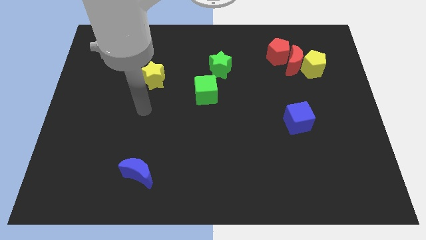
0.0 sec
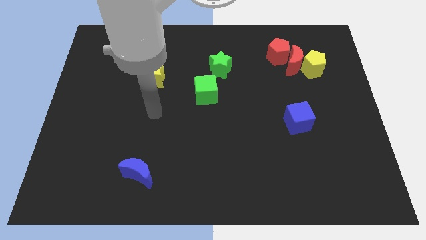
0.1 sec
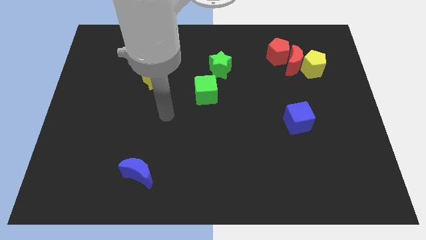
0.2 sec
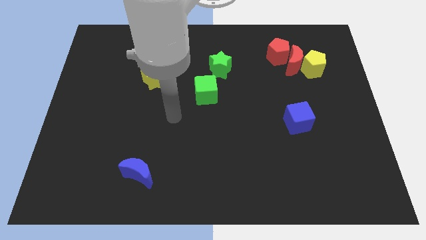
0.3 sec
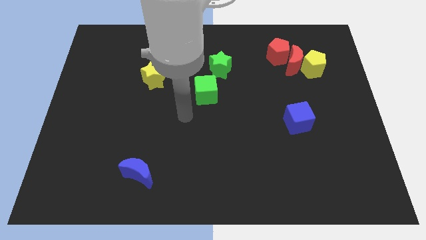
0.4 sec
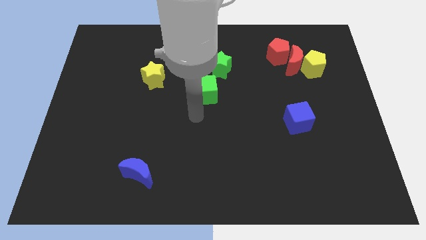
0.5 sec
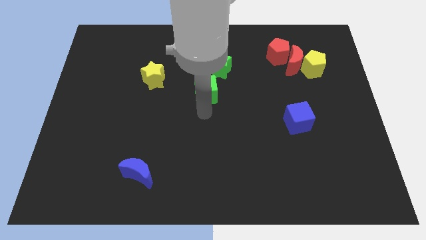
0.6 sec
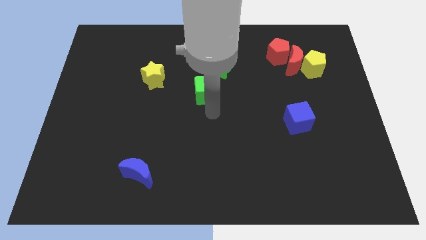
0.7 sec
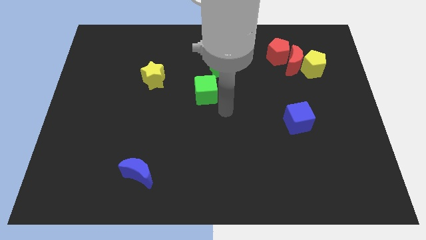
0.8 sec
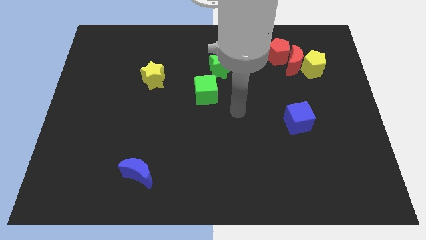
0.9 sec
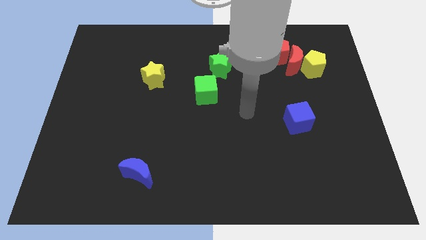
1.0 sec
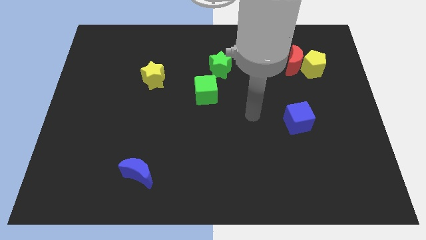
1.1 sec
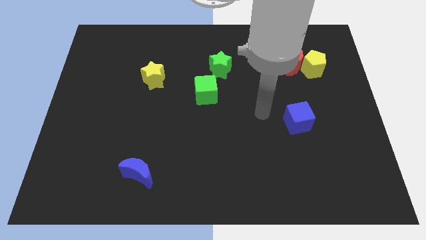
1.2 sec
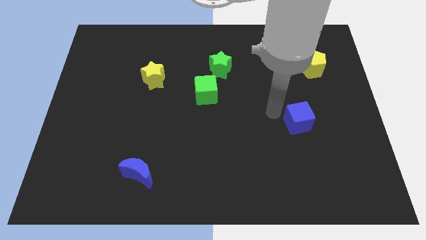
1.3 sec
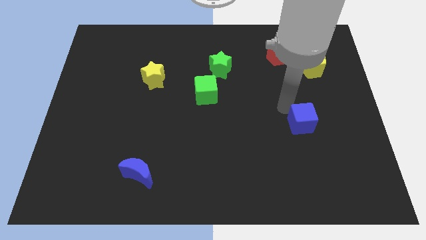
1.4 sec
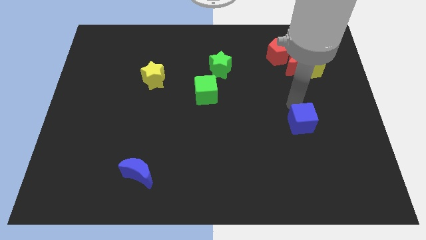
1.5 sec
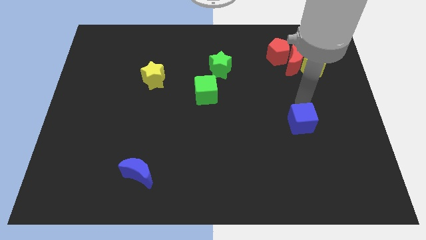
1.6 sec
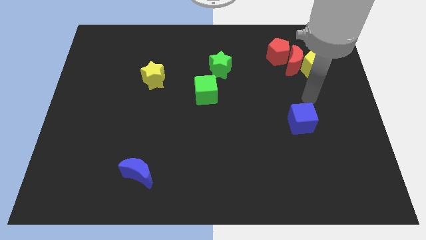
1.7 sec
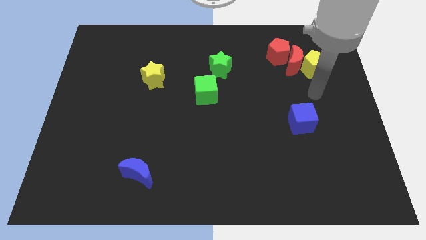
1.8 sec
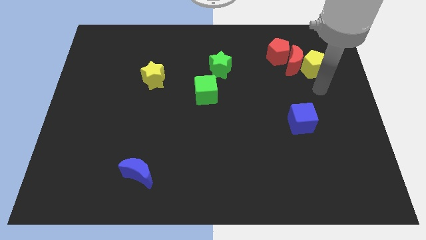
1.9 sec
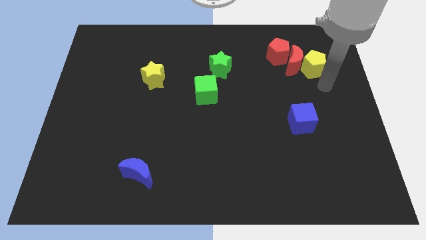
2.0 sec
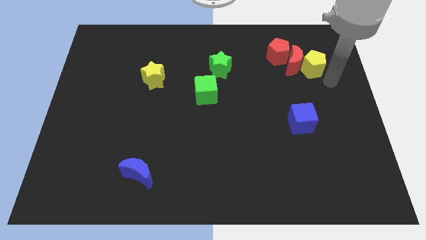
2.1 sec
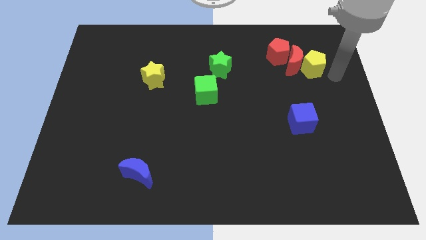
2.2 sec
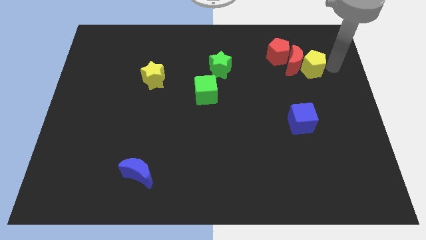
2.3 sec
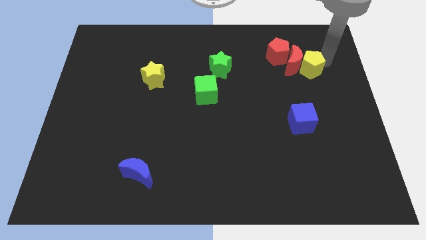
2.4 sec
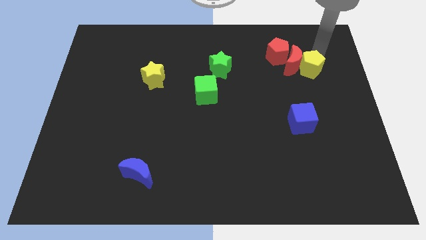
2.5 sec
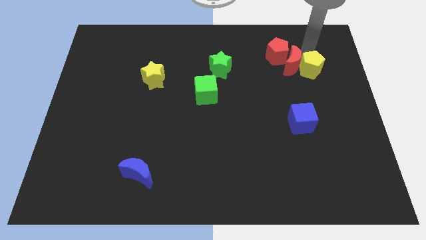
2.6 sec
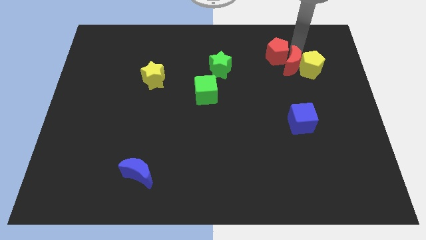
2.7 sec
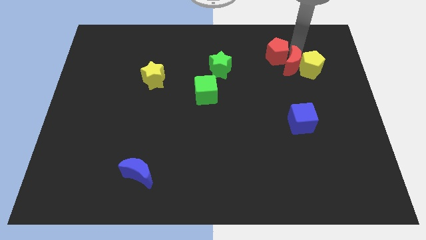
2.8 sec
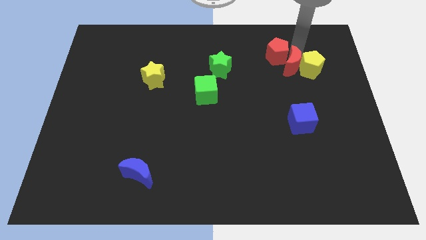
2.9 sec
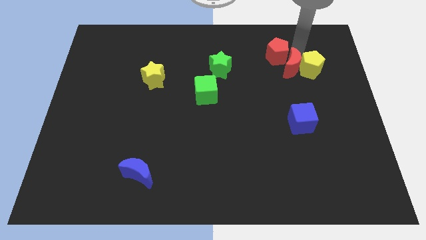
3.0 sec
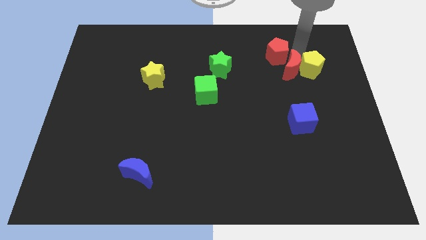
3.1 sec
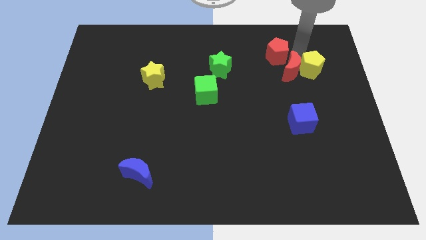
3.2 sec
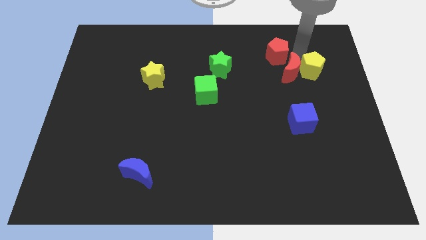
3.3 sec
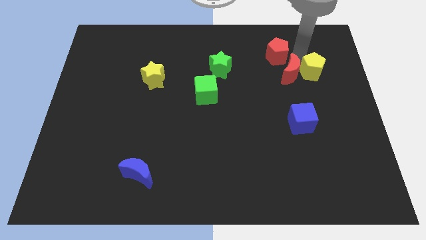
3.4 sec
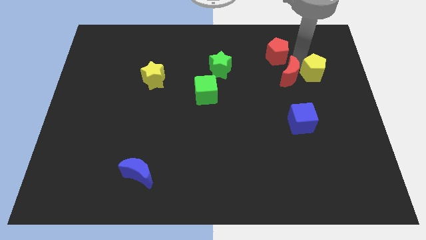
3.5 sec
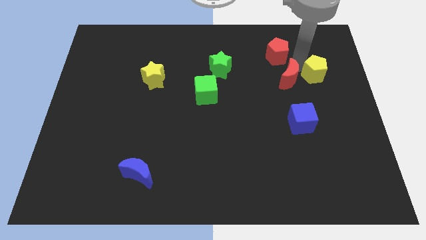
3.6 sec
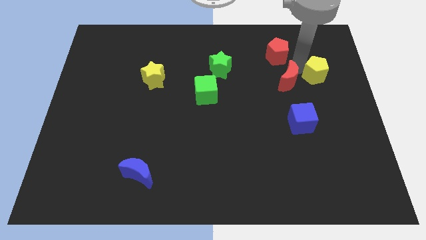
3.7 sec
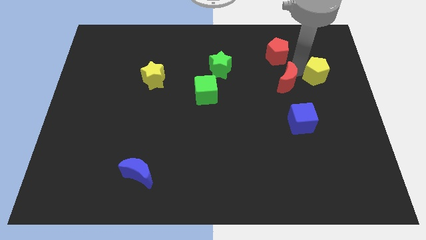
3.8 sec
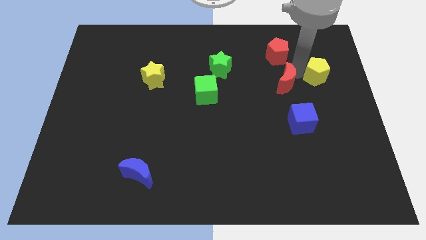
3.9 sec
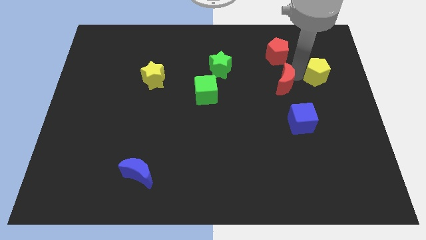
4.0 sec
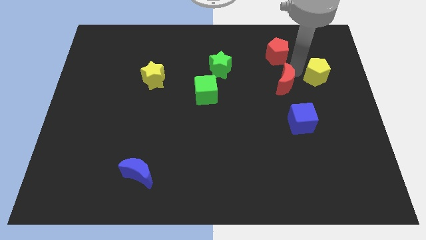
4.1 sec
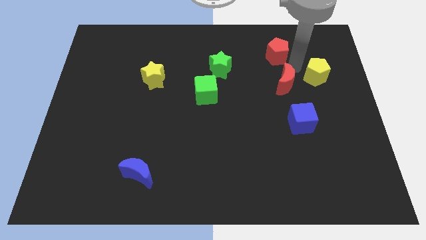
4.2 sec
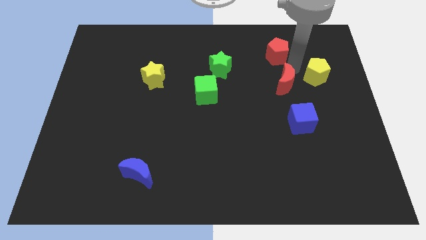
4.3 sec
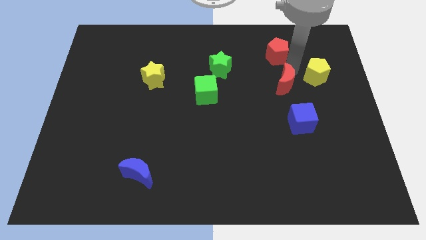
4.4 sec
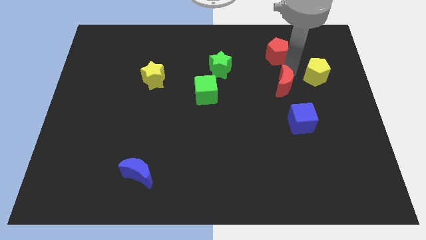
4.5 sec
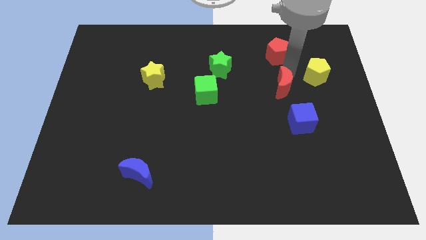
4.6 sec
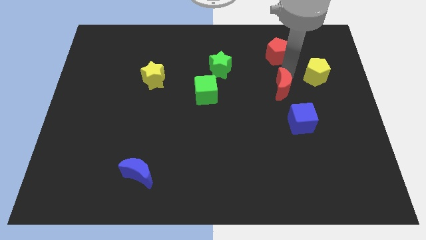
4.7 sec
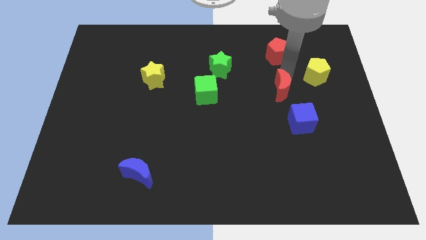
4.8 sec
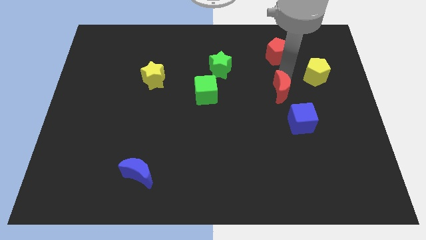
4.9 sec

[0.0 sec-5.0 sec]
pull the red moon apart from the yellow pentagon and red pentagon

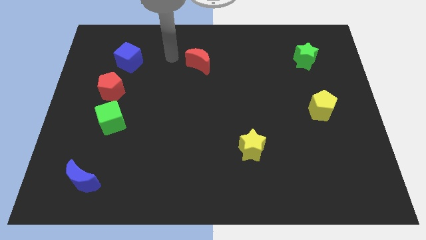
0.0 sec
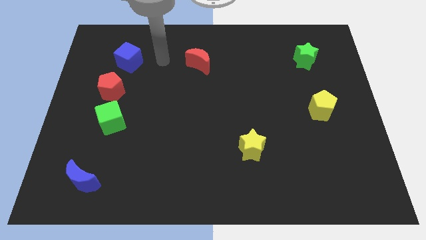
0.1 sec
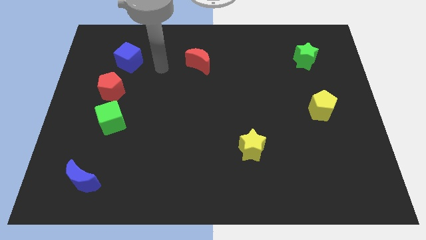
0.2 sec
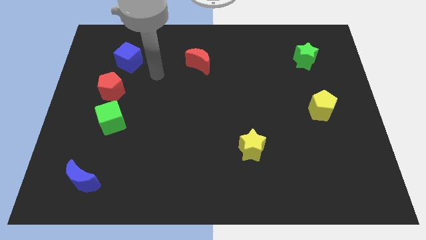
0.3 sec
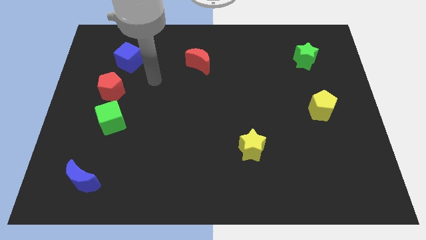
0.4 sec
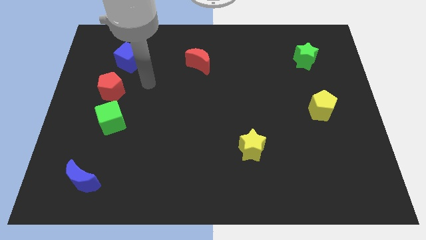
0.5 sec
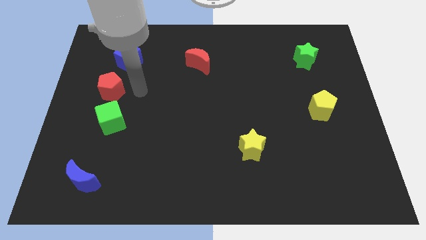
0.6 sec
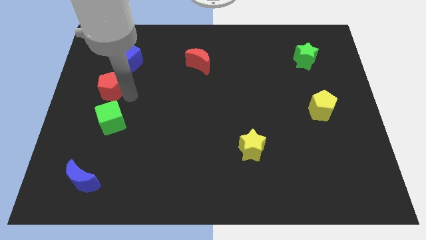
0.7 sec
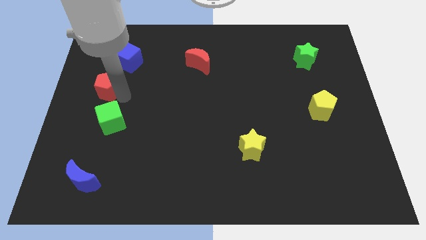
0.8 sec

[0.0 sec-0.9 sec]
move the green cube away from the red pentagon

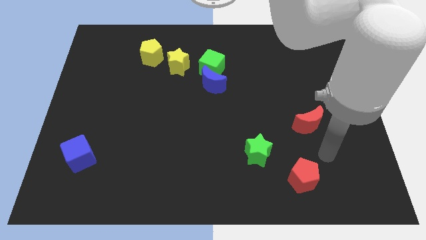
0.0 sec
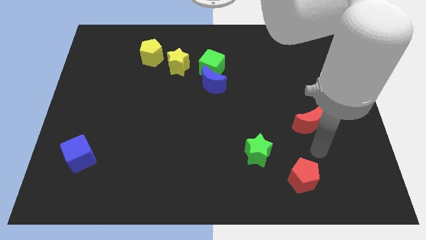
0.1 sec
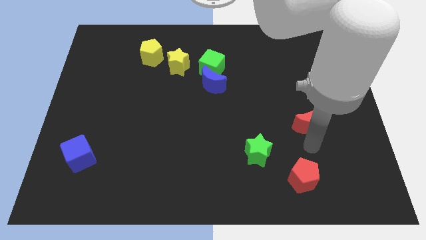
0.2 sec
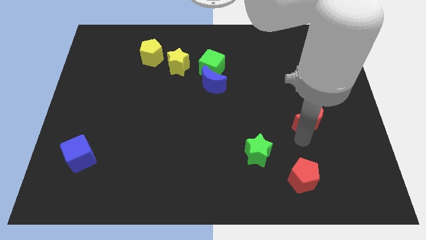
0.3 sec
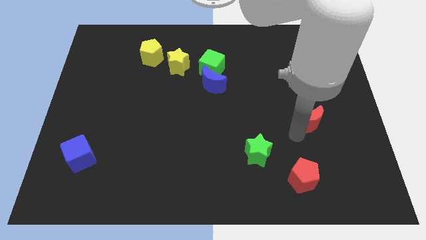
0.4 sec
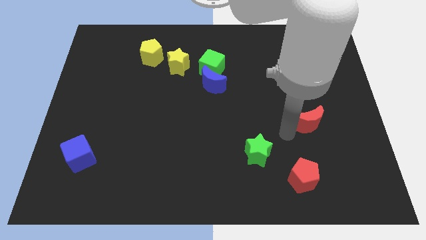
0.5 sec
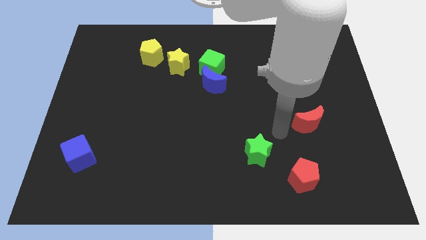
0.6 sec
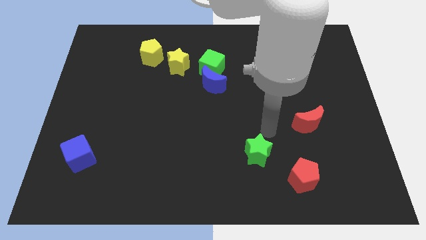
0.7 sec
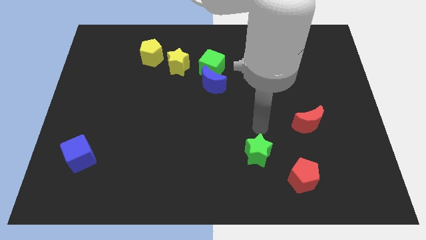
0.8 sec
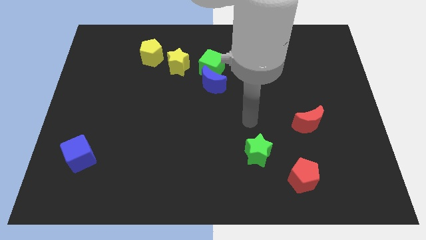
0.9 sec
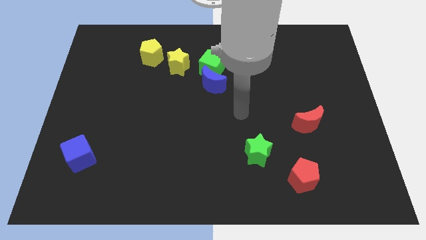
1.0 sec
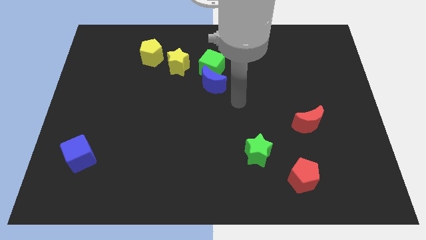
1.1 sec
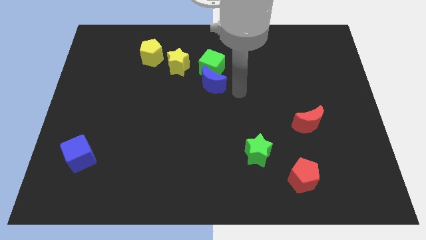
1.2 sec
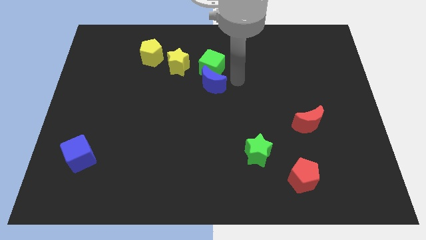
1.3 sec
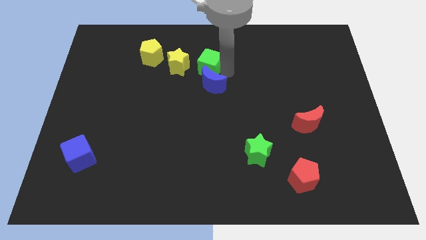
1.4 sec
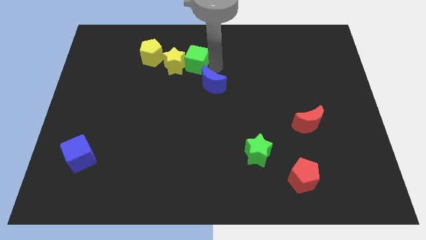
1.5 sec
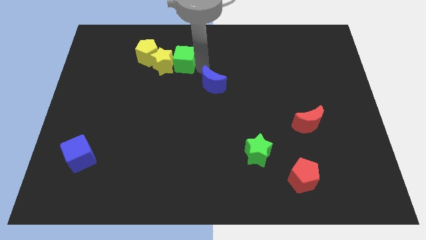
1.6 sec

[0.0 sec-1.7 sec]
move the blue moon away from the green cube

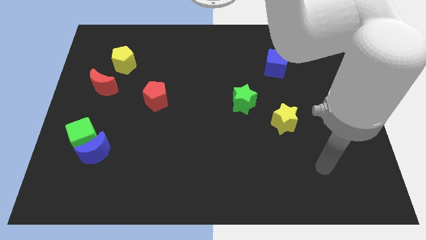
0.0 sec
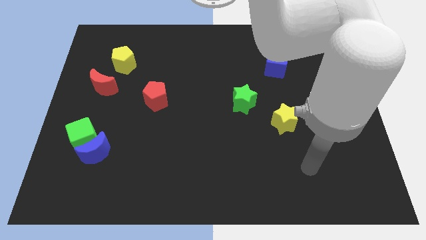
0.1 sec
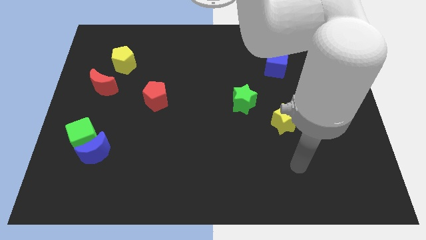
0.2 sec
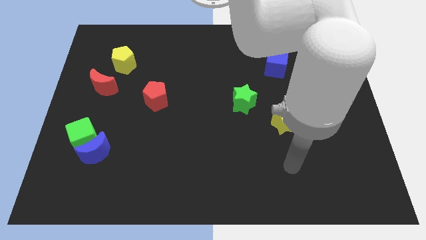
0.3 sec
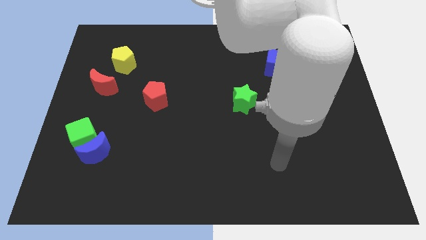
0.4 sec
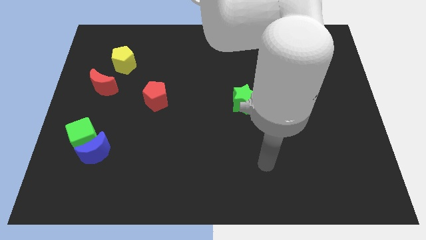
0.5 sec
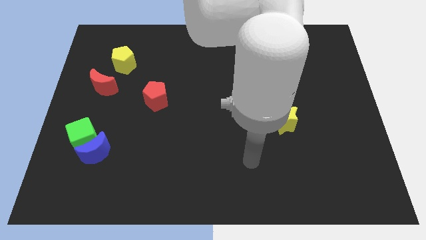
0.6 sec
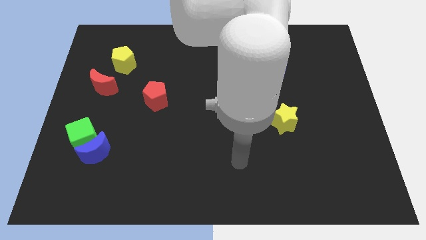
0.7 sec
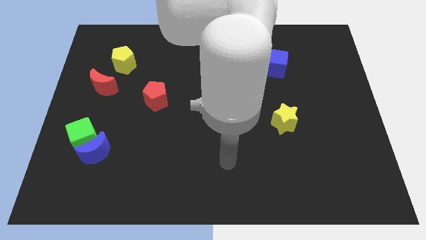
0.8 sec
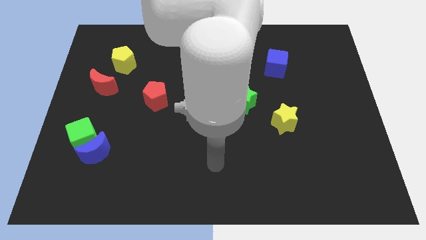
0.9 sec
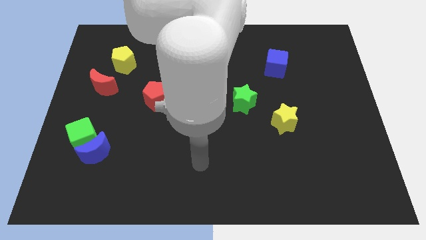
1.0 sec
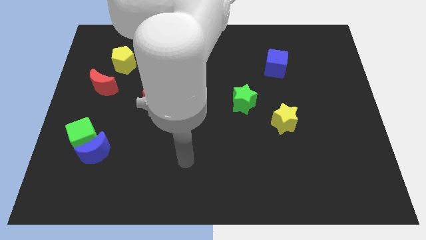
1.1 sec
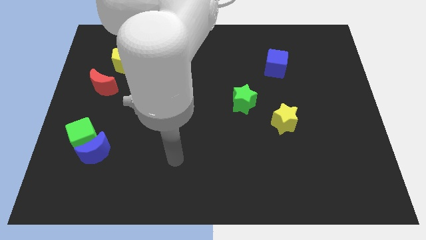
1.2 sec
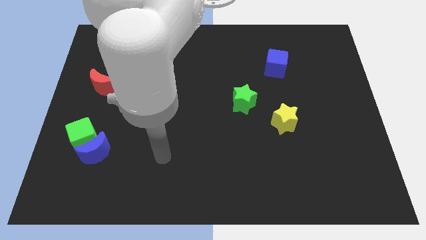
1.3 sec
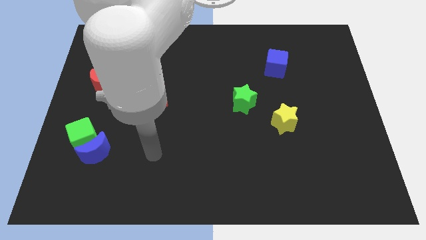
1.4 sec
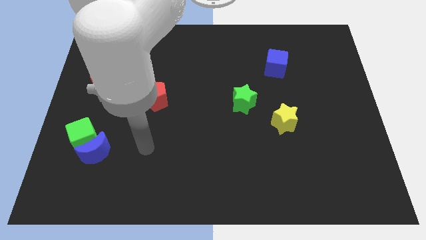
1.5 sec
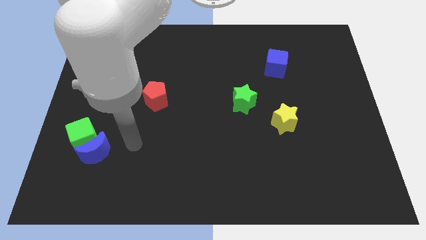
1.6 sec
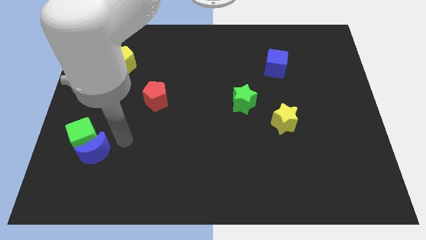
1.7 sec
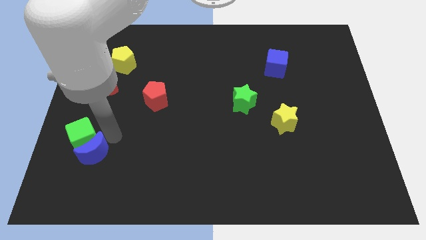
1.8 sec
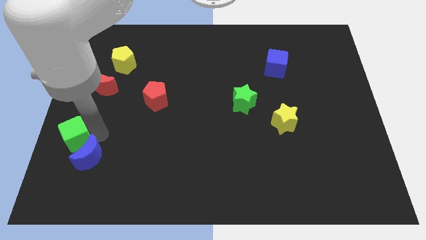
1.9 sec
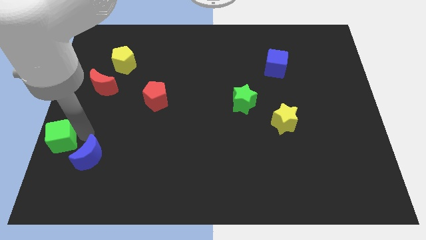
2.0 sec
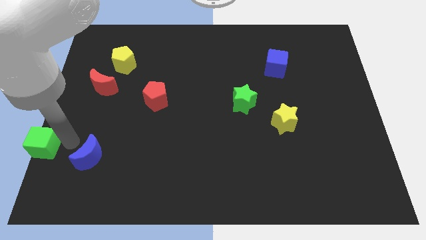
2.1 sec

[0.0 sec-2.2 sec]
pull the blue moon apart from the green cube
